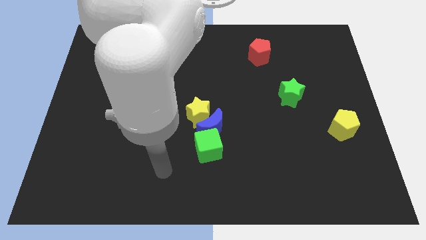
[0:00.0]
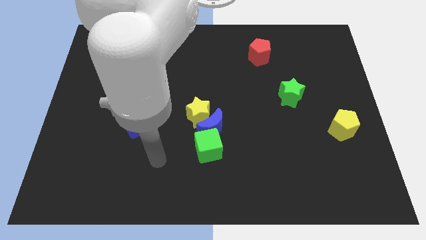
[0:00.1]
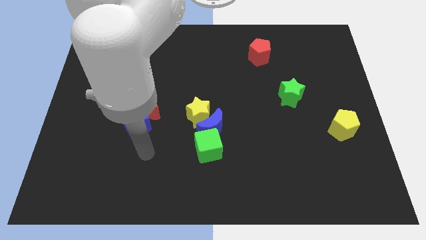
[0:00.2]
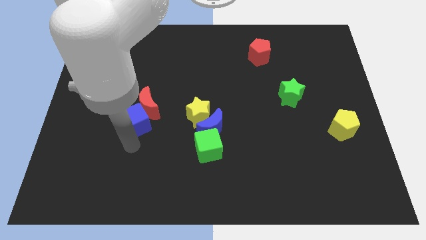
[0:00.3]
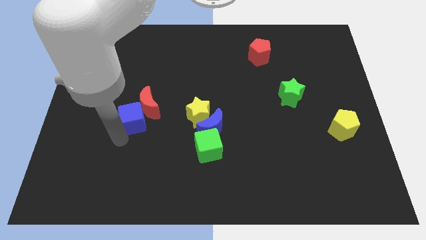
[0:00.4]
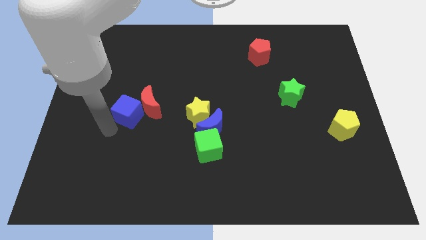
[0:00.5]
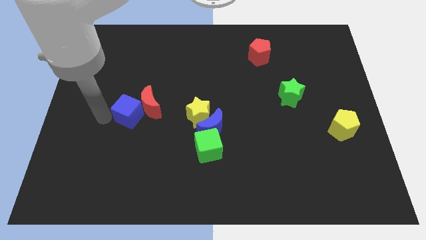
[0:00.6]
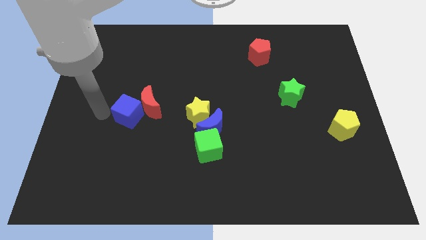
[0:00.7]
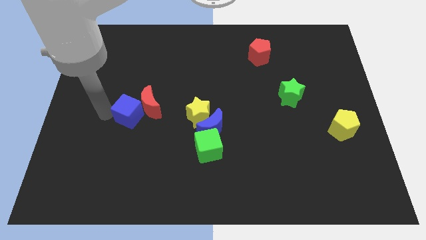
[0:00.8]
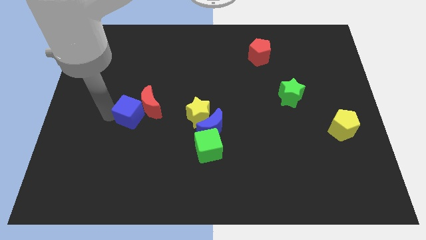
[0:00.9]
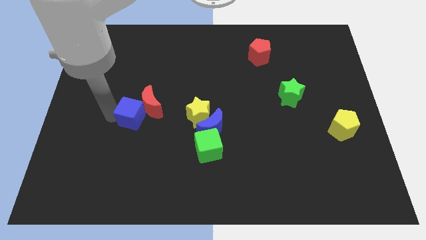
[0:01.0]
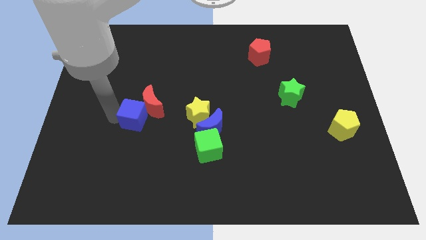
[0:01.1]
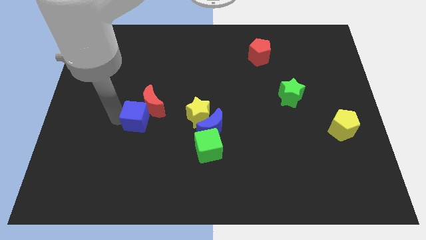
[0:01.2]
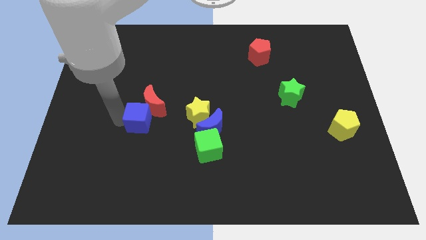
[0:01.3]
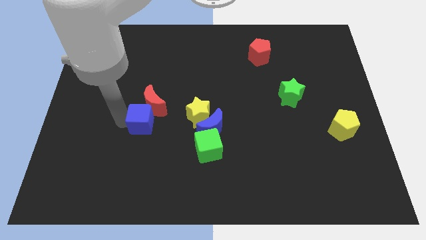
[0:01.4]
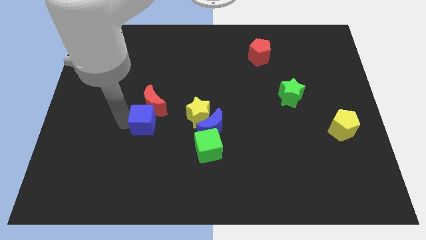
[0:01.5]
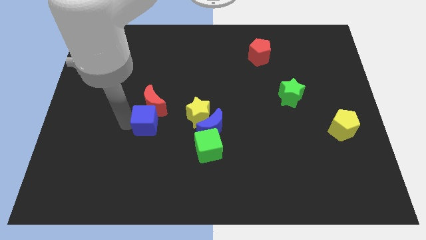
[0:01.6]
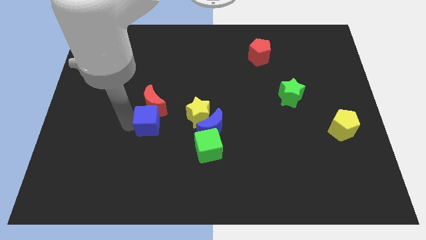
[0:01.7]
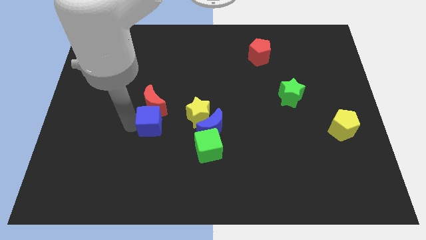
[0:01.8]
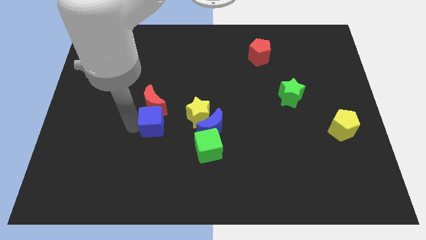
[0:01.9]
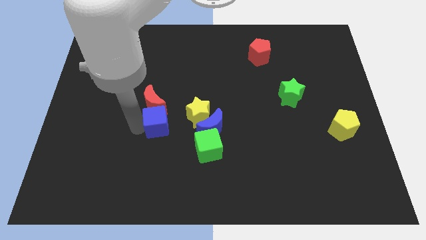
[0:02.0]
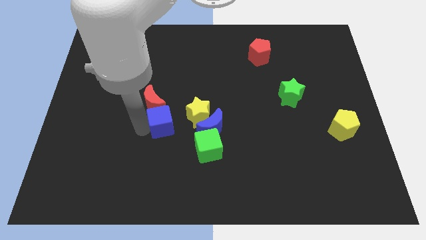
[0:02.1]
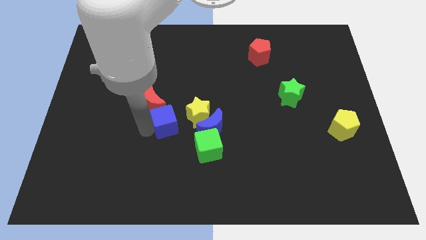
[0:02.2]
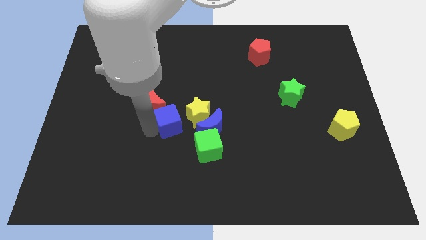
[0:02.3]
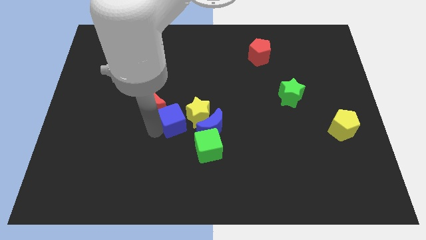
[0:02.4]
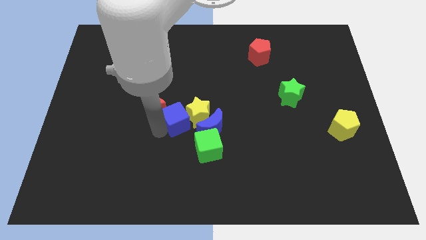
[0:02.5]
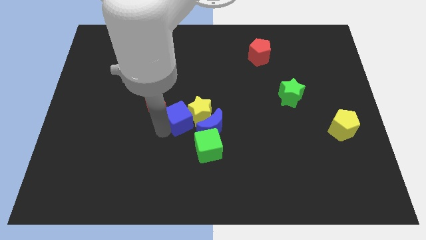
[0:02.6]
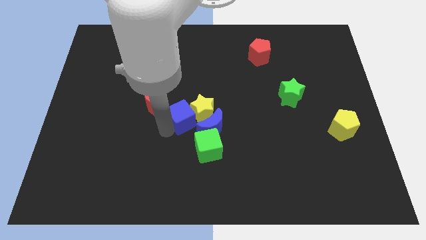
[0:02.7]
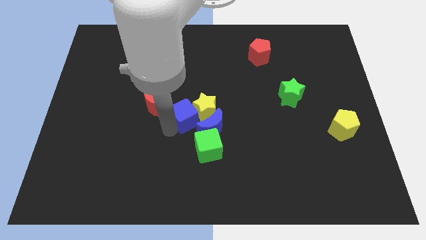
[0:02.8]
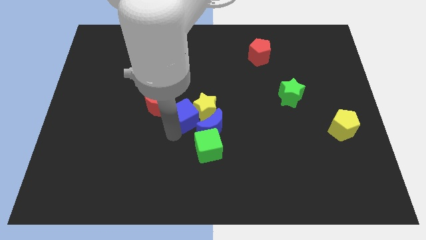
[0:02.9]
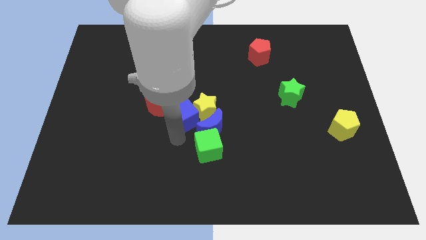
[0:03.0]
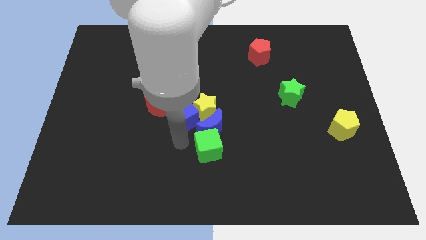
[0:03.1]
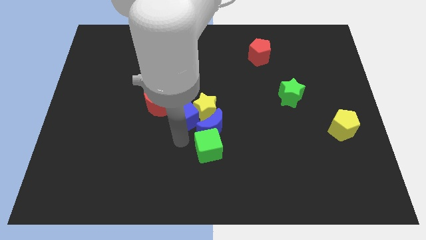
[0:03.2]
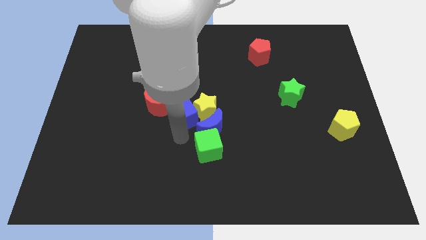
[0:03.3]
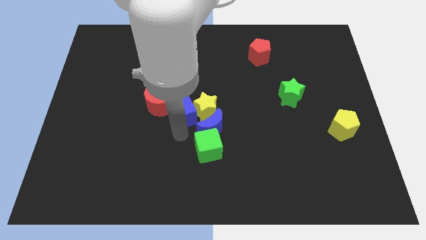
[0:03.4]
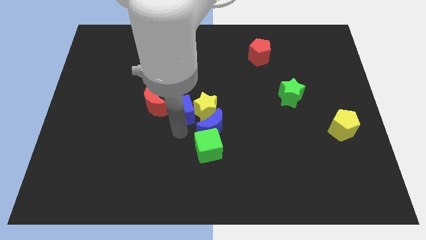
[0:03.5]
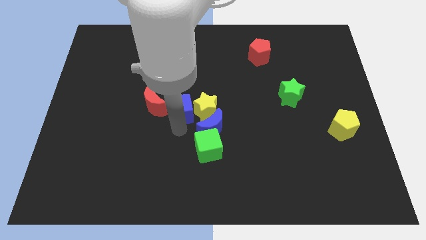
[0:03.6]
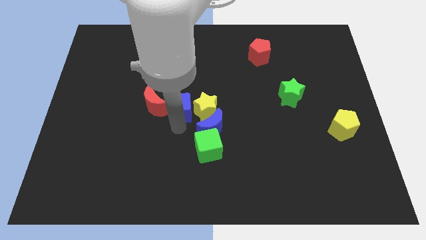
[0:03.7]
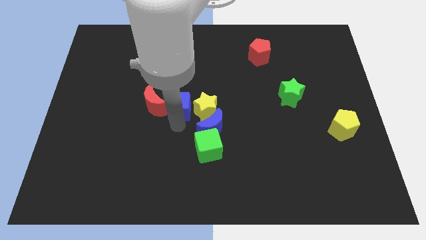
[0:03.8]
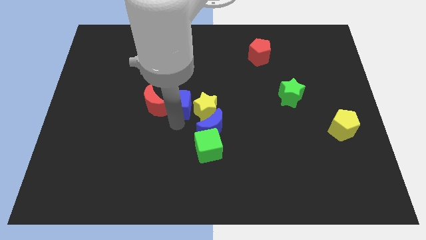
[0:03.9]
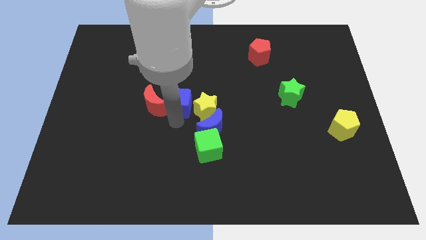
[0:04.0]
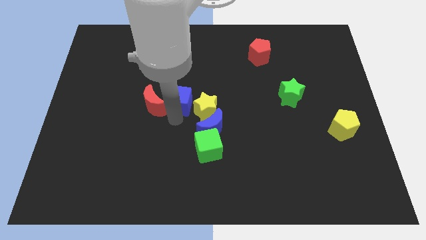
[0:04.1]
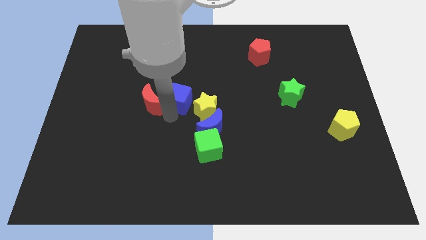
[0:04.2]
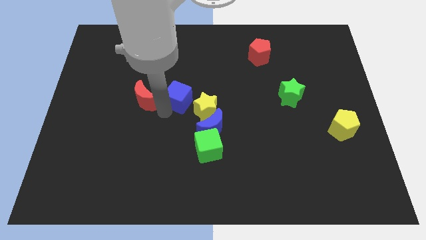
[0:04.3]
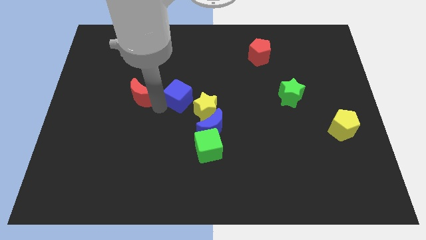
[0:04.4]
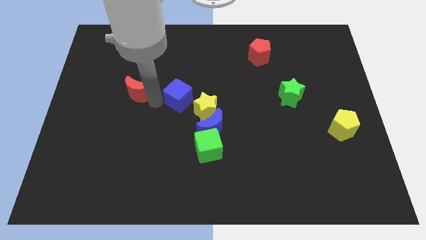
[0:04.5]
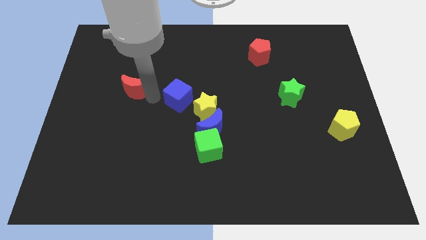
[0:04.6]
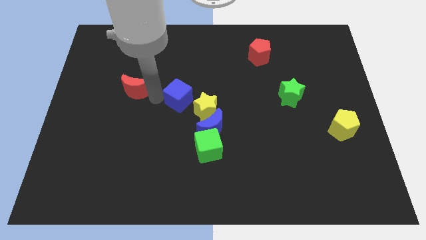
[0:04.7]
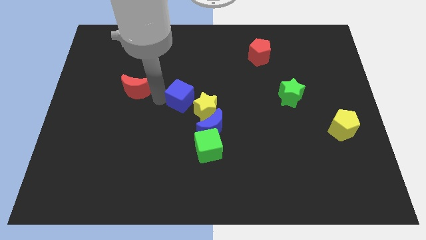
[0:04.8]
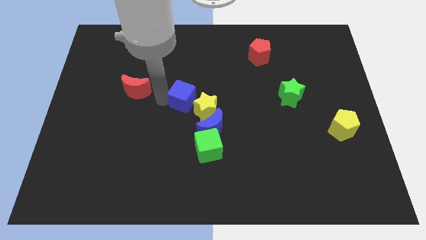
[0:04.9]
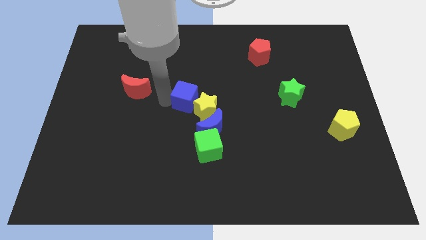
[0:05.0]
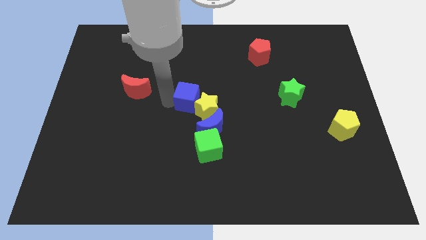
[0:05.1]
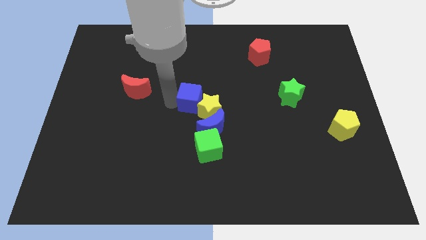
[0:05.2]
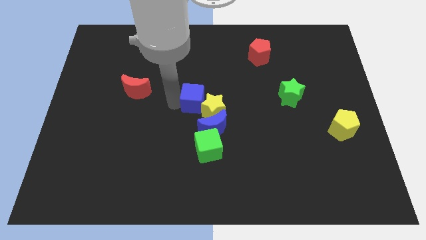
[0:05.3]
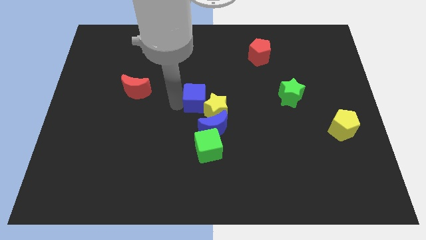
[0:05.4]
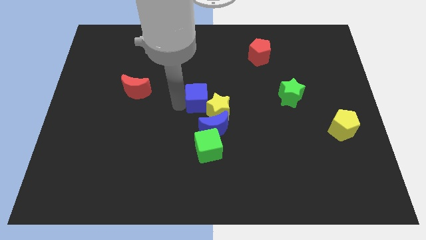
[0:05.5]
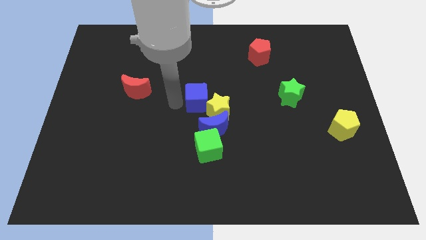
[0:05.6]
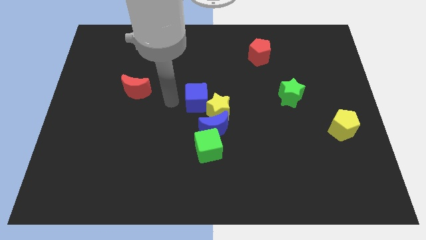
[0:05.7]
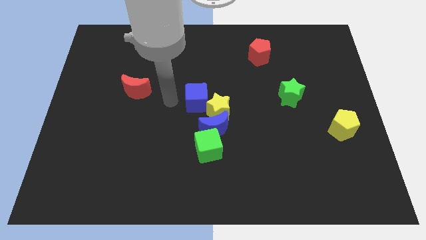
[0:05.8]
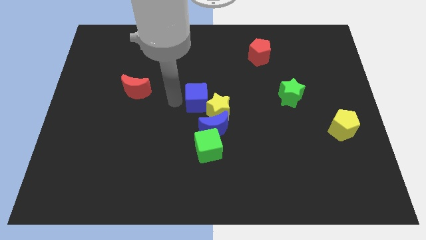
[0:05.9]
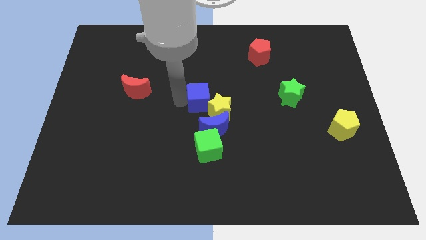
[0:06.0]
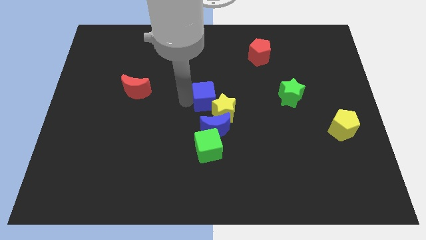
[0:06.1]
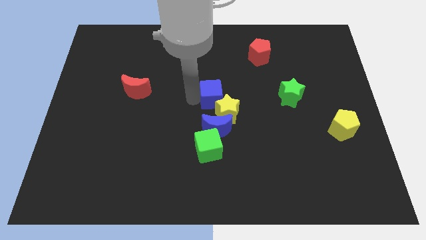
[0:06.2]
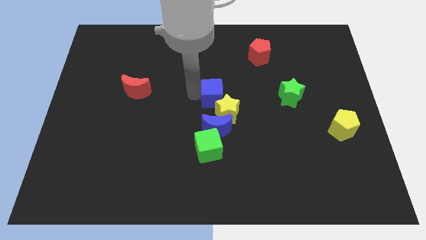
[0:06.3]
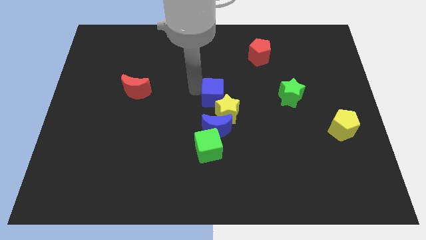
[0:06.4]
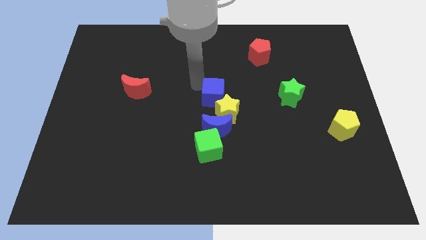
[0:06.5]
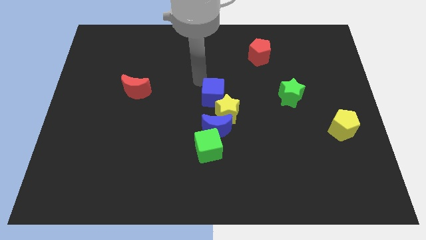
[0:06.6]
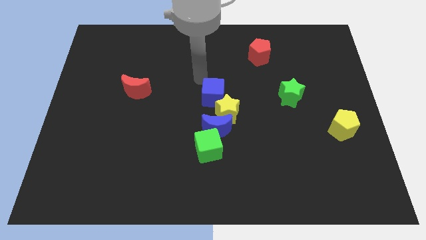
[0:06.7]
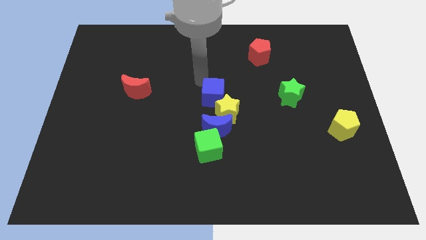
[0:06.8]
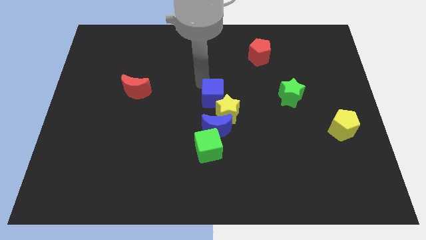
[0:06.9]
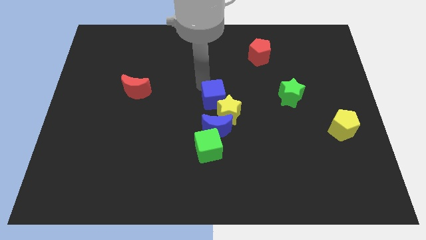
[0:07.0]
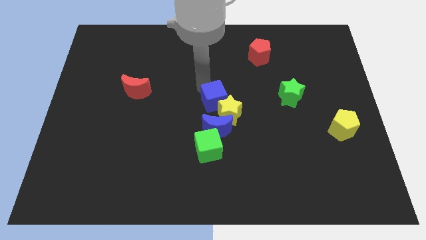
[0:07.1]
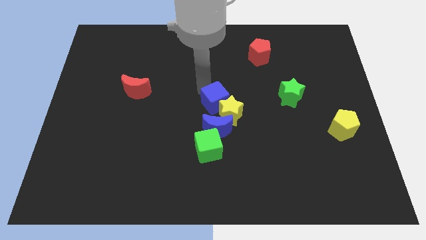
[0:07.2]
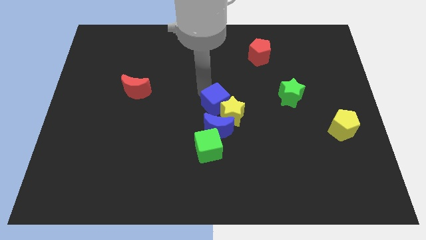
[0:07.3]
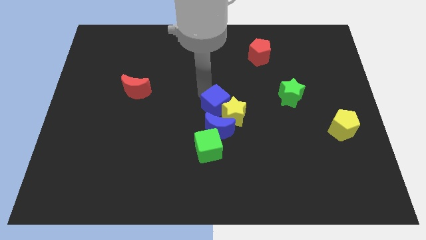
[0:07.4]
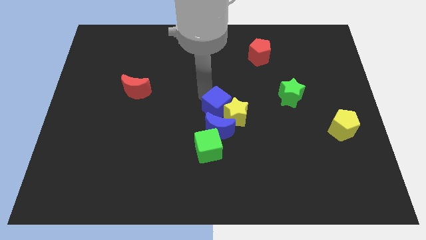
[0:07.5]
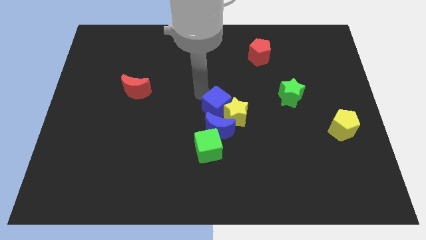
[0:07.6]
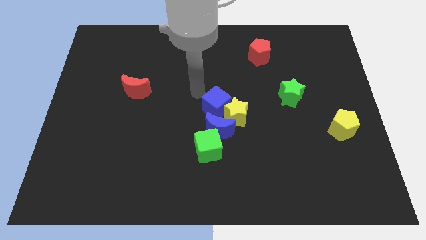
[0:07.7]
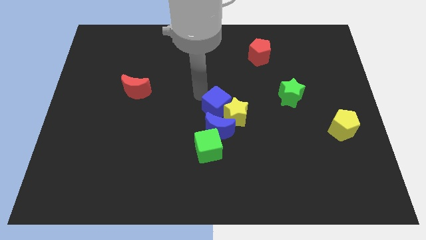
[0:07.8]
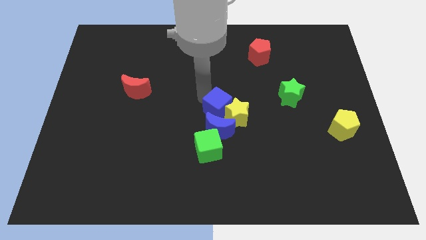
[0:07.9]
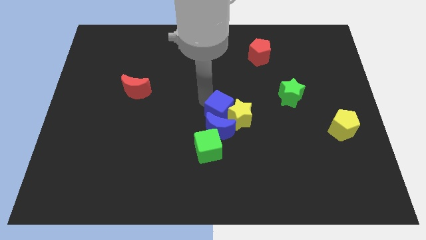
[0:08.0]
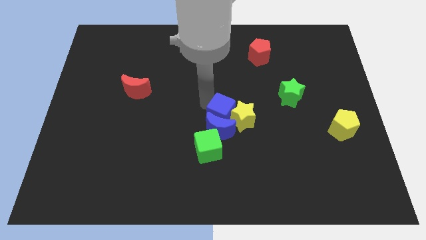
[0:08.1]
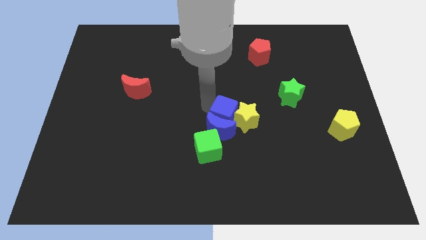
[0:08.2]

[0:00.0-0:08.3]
move the blue cube to the right
